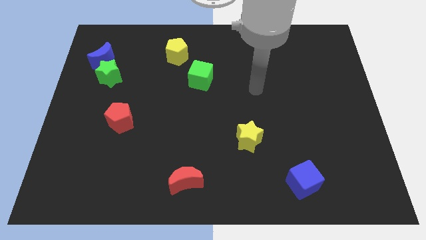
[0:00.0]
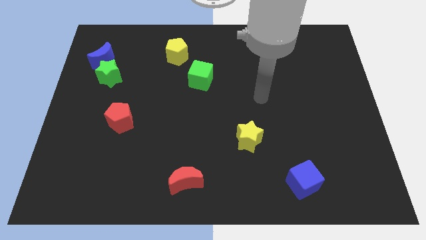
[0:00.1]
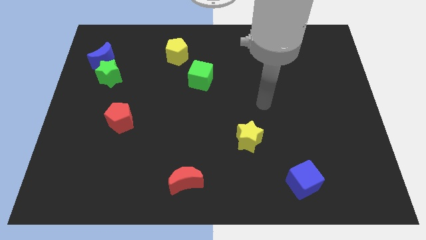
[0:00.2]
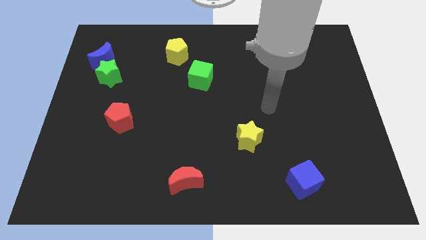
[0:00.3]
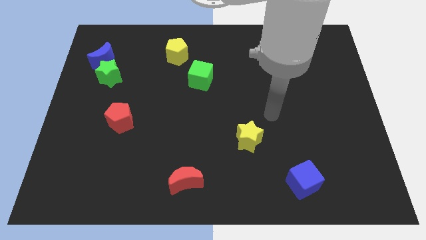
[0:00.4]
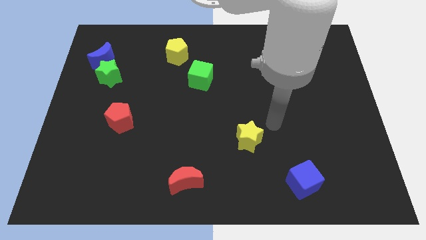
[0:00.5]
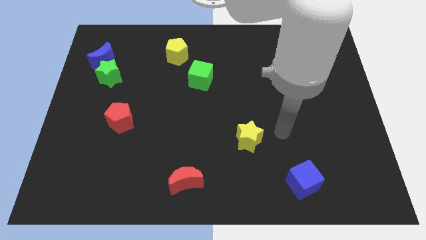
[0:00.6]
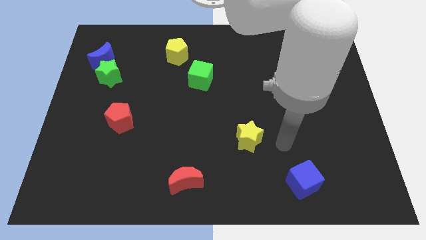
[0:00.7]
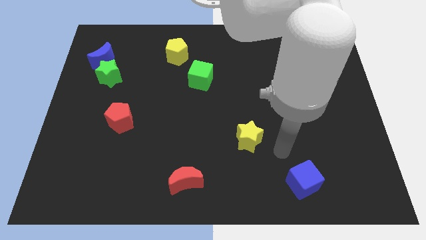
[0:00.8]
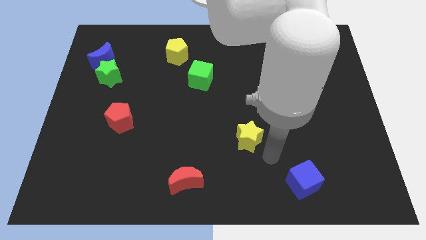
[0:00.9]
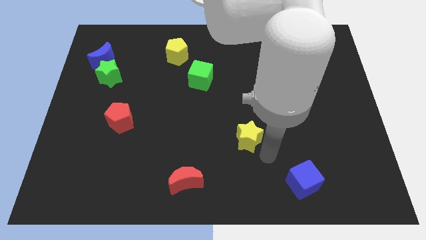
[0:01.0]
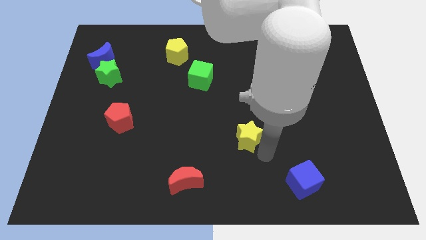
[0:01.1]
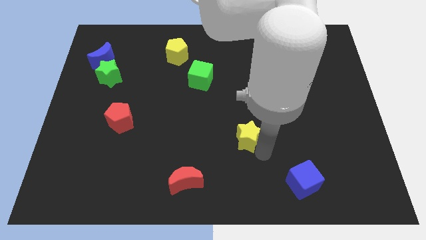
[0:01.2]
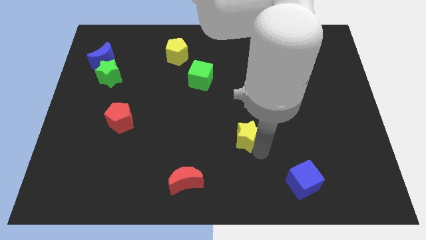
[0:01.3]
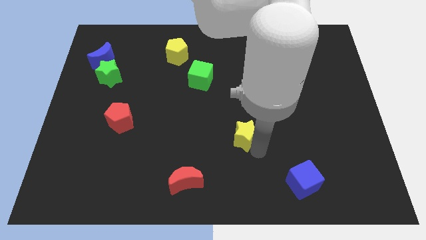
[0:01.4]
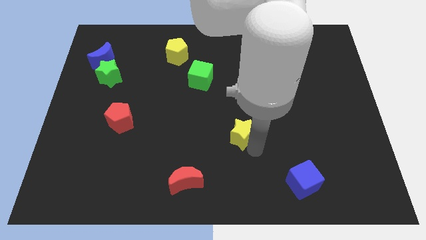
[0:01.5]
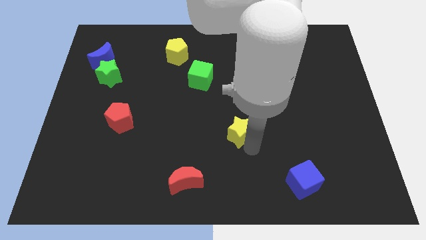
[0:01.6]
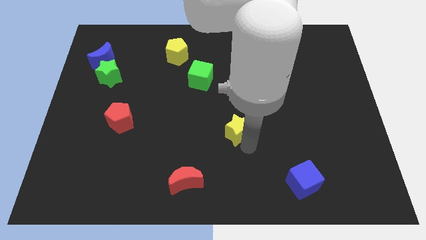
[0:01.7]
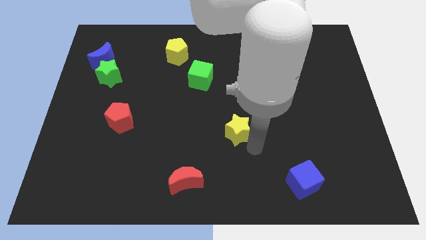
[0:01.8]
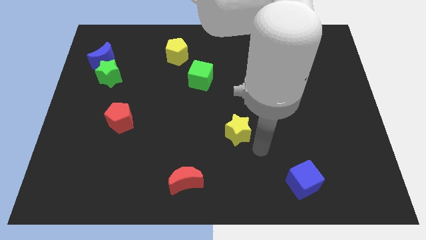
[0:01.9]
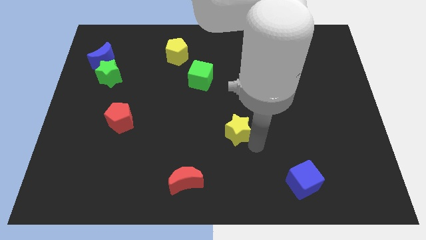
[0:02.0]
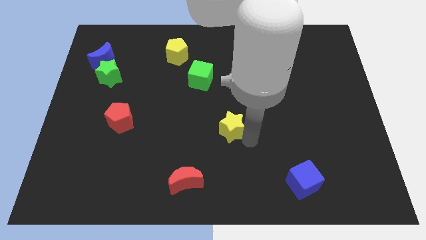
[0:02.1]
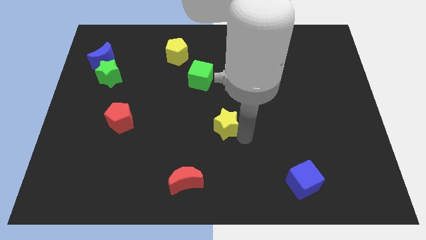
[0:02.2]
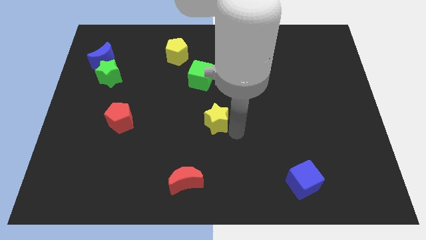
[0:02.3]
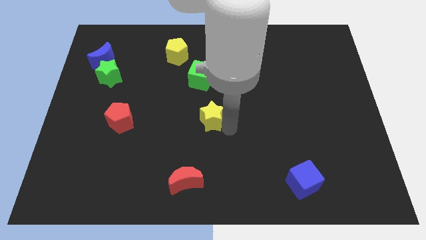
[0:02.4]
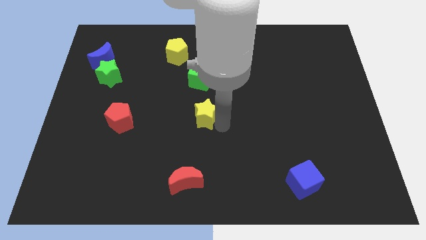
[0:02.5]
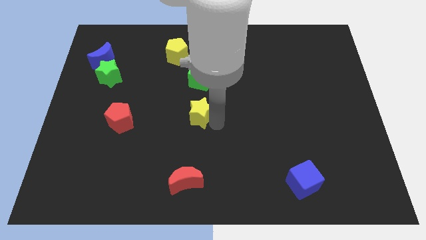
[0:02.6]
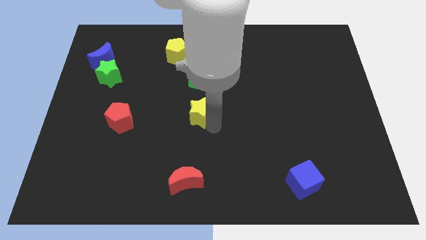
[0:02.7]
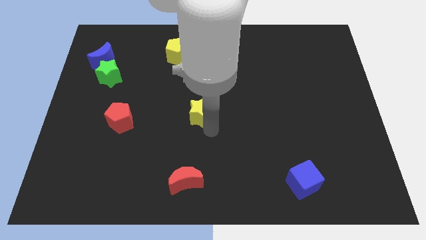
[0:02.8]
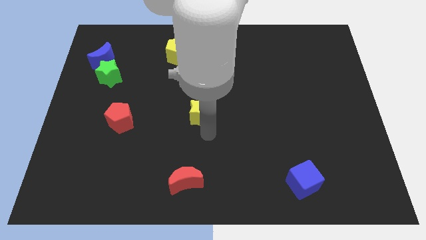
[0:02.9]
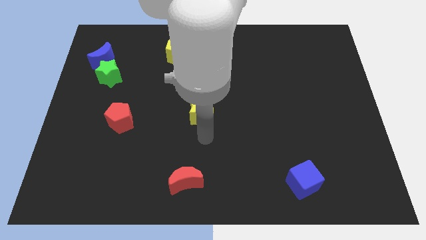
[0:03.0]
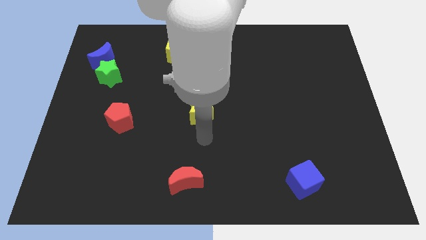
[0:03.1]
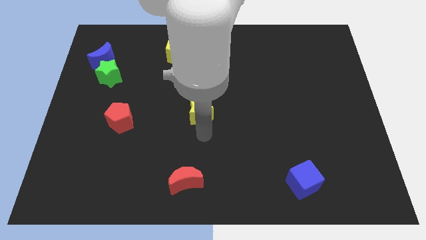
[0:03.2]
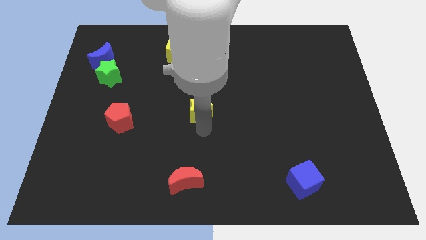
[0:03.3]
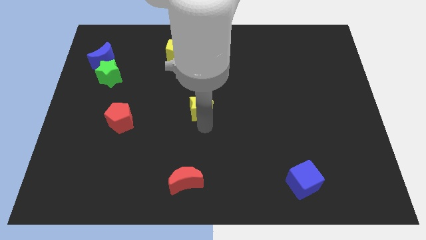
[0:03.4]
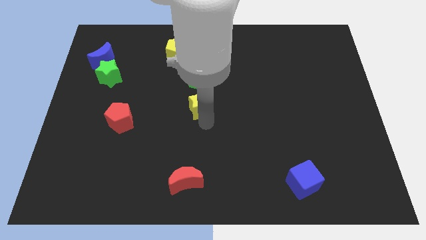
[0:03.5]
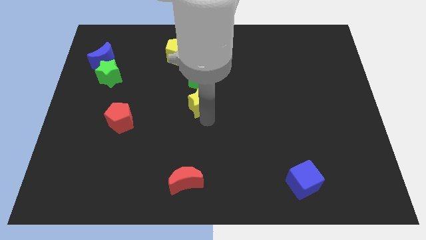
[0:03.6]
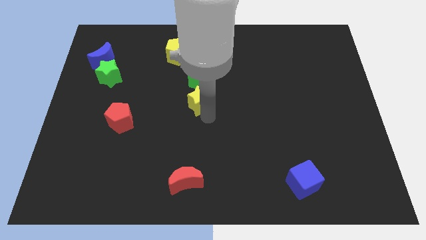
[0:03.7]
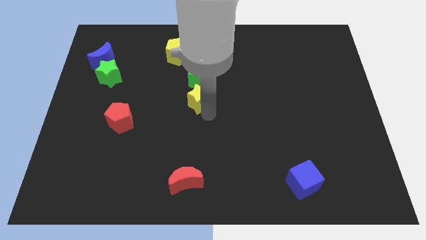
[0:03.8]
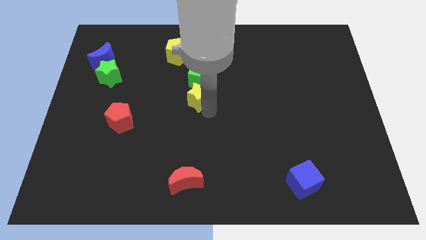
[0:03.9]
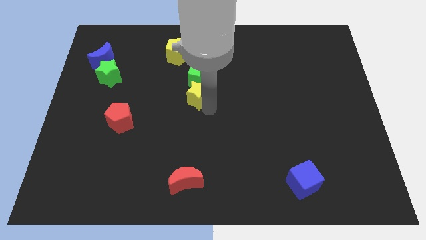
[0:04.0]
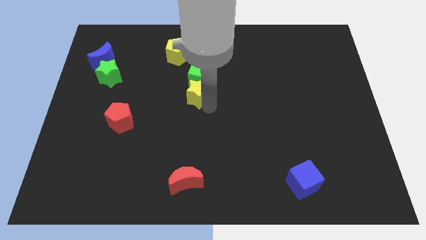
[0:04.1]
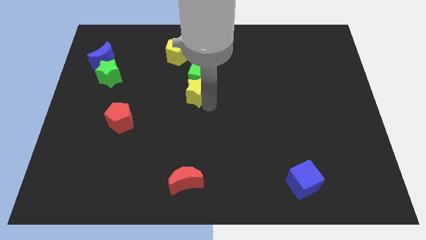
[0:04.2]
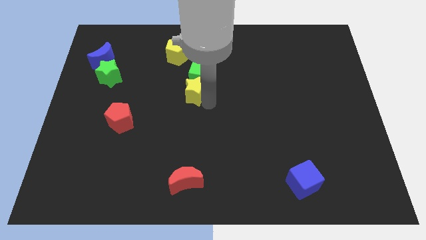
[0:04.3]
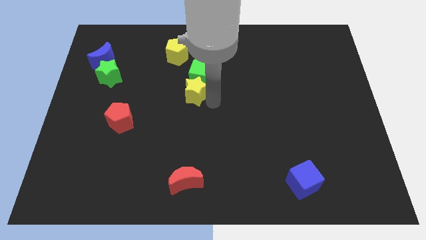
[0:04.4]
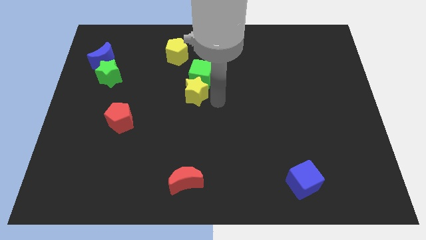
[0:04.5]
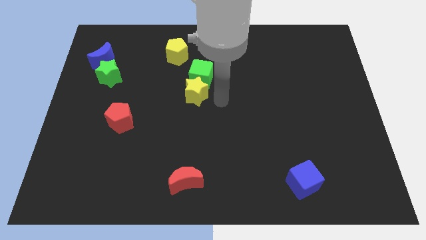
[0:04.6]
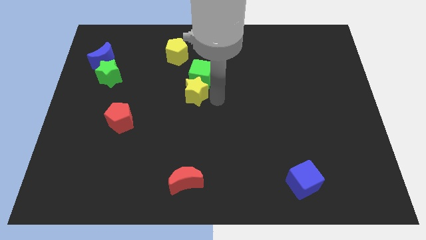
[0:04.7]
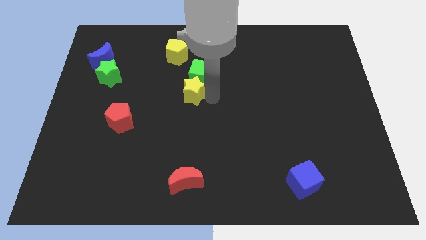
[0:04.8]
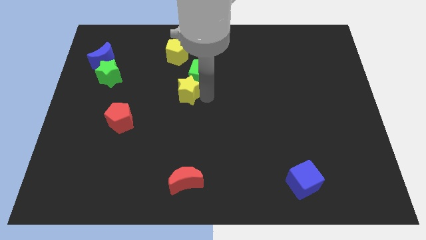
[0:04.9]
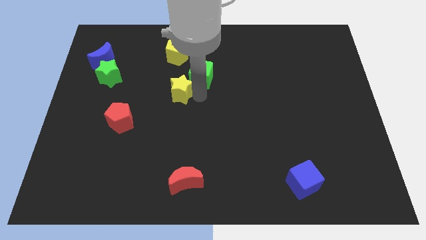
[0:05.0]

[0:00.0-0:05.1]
push the yellow star upwards and then left

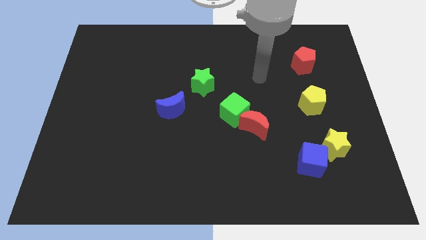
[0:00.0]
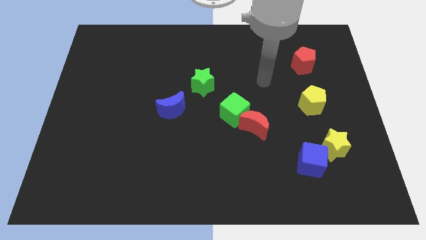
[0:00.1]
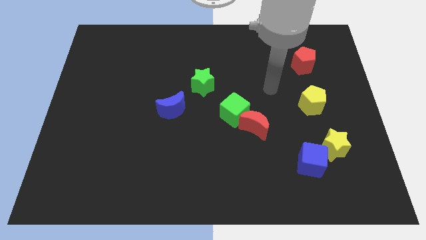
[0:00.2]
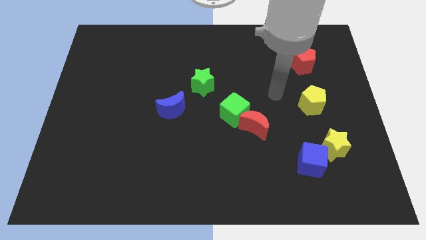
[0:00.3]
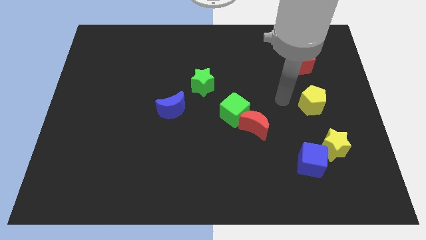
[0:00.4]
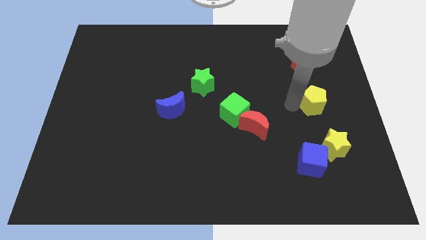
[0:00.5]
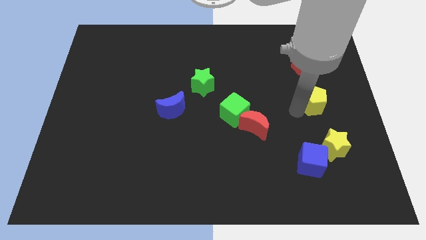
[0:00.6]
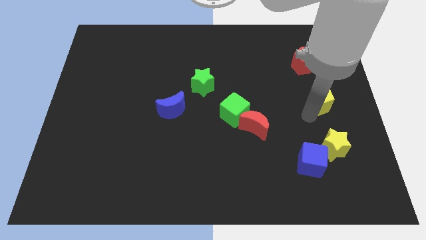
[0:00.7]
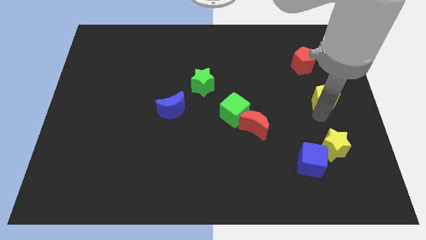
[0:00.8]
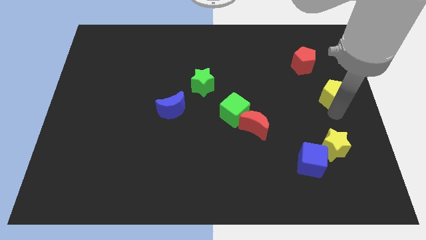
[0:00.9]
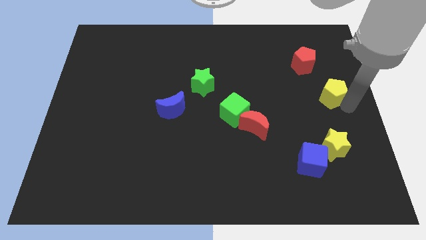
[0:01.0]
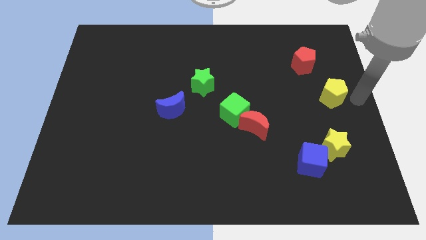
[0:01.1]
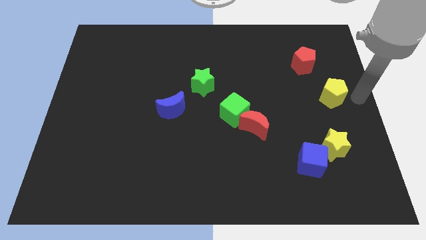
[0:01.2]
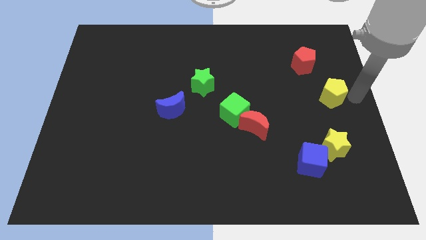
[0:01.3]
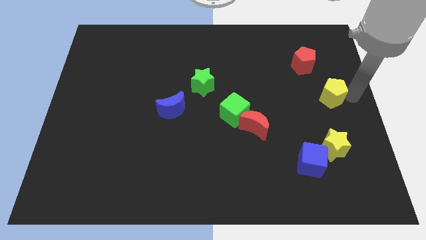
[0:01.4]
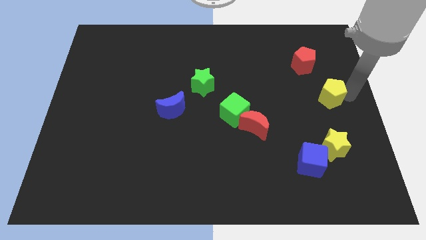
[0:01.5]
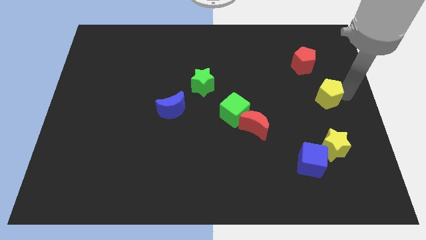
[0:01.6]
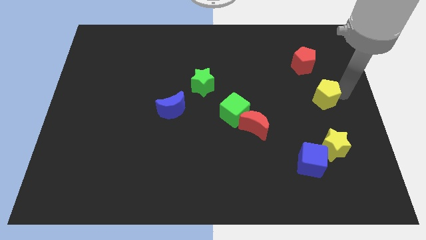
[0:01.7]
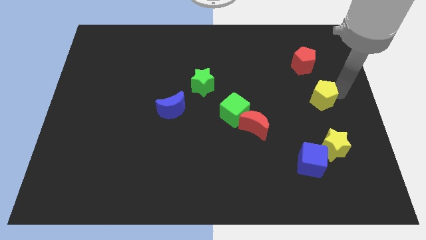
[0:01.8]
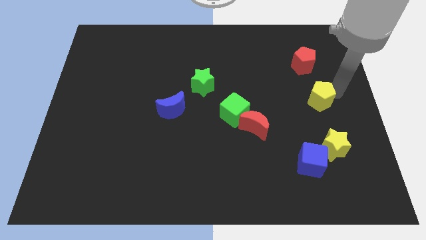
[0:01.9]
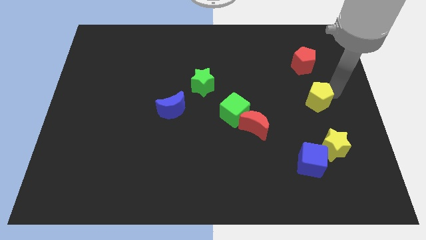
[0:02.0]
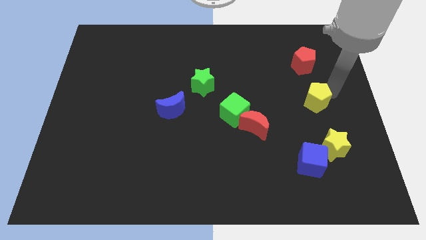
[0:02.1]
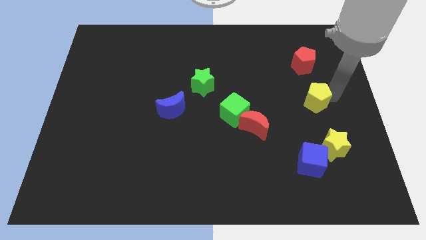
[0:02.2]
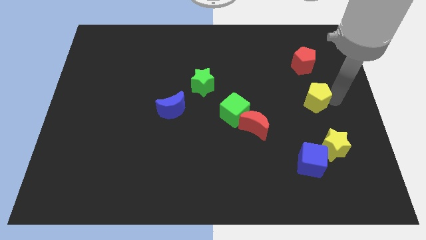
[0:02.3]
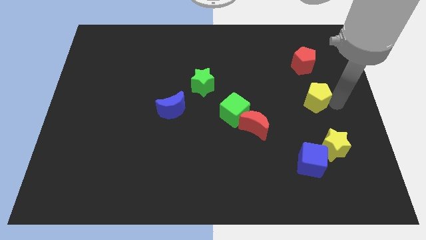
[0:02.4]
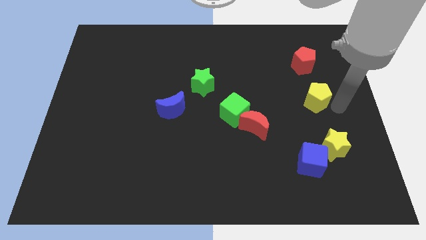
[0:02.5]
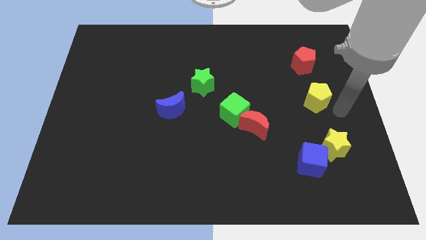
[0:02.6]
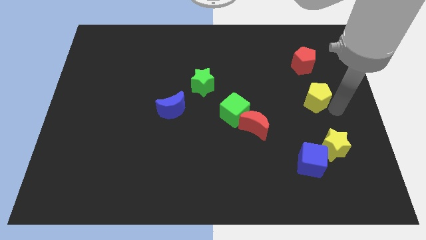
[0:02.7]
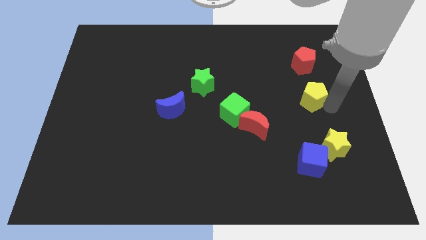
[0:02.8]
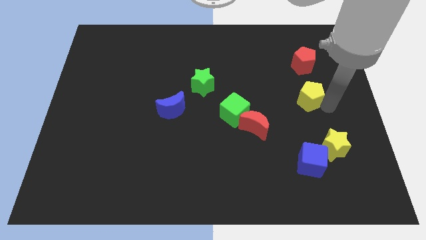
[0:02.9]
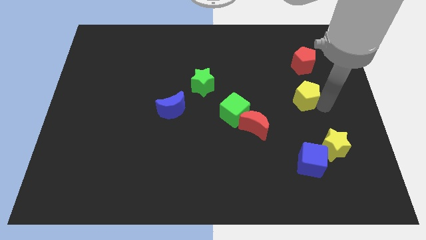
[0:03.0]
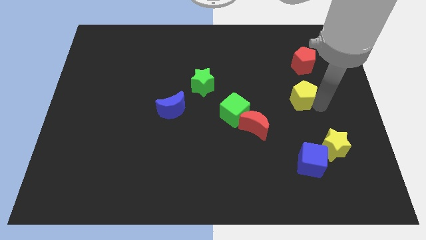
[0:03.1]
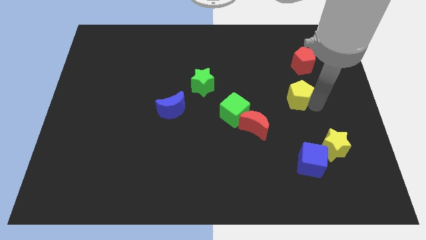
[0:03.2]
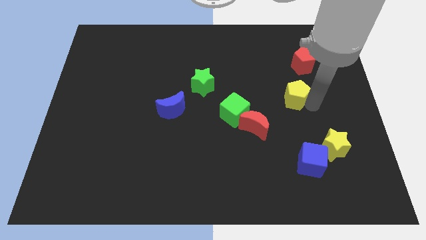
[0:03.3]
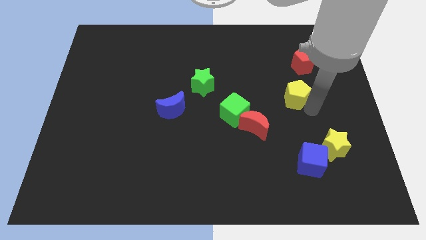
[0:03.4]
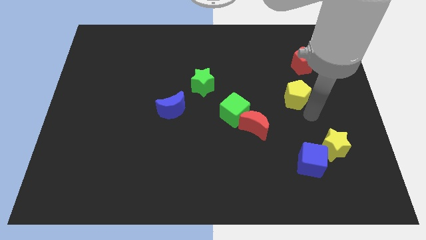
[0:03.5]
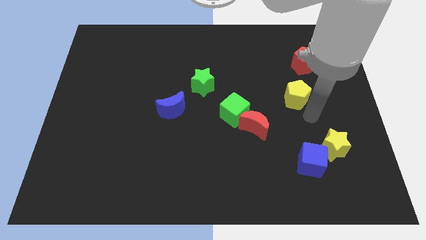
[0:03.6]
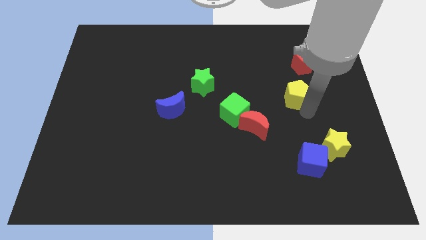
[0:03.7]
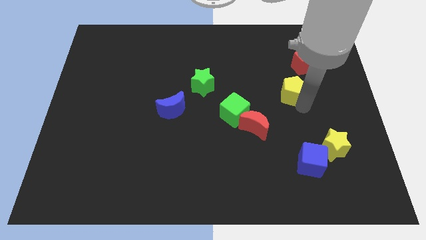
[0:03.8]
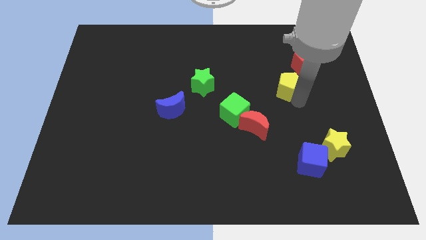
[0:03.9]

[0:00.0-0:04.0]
move the yellow pentagon a little upwards and then left
